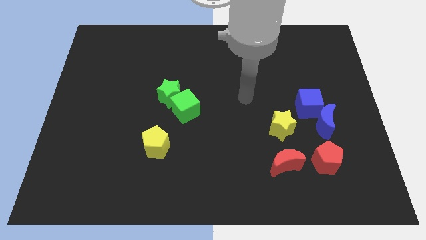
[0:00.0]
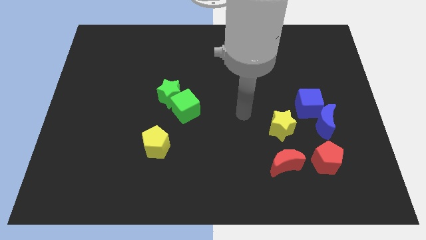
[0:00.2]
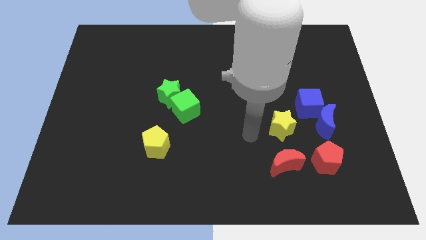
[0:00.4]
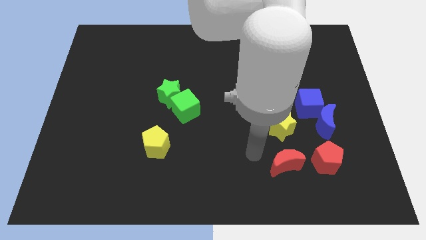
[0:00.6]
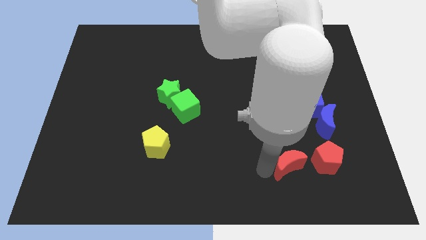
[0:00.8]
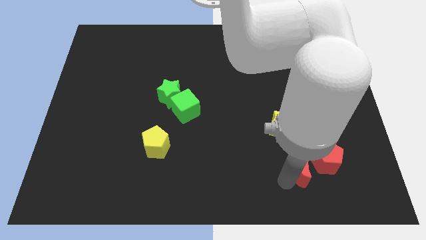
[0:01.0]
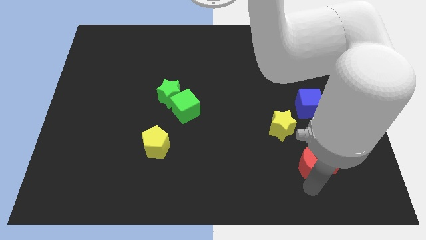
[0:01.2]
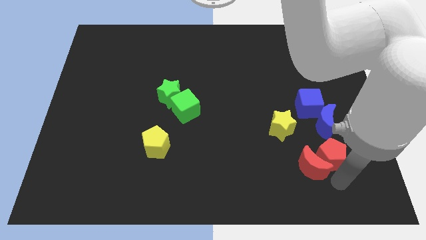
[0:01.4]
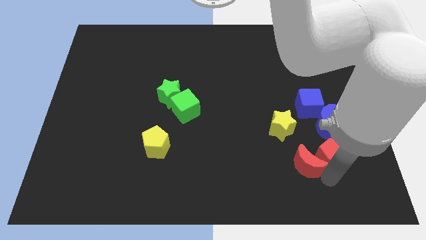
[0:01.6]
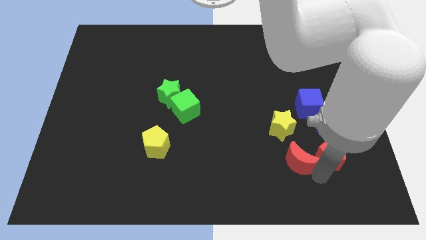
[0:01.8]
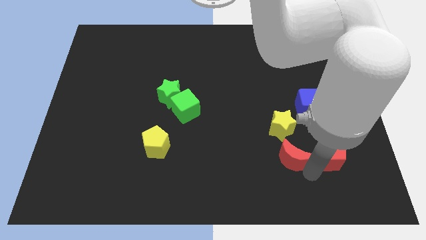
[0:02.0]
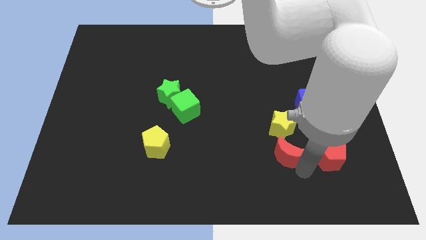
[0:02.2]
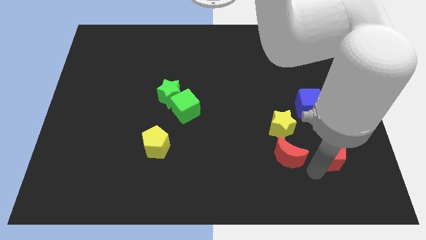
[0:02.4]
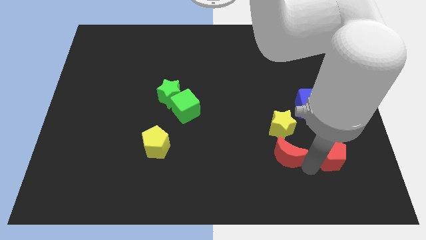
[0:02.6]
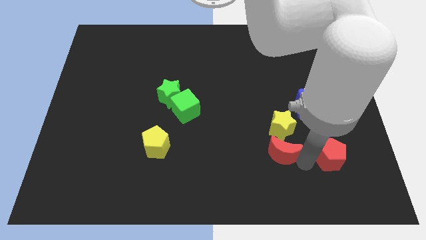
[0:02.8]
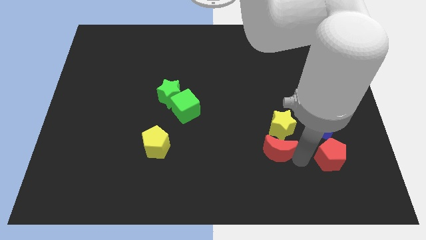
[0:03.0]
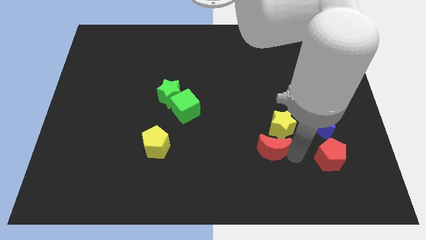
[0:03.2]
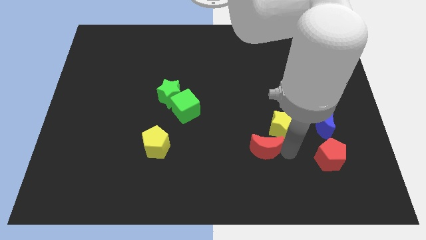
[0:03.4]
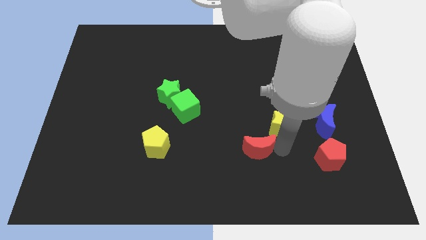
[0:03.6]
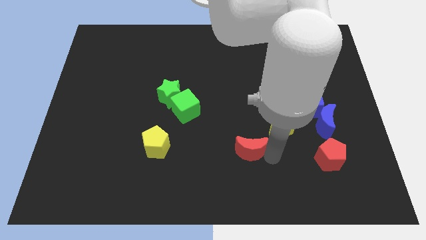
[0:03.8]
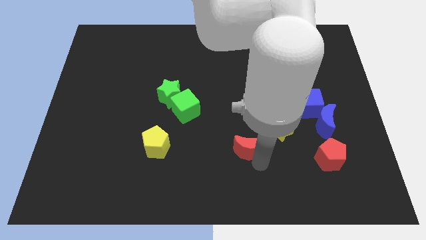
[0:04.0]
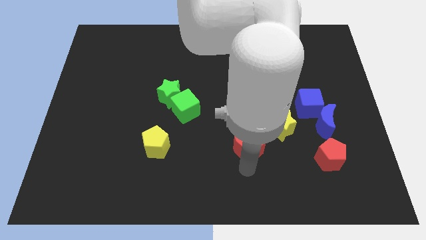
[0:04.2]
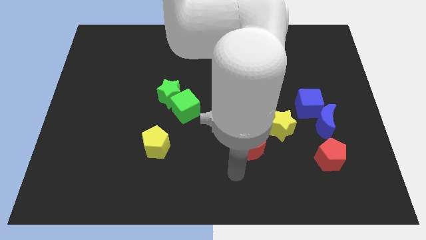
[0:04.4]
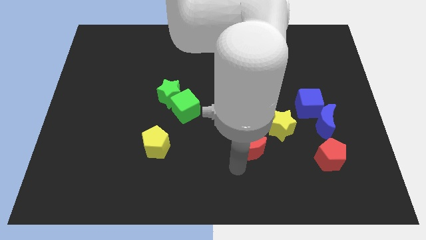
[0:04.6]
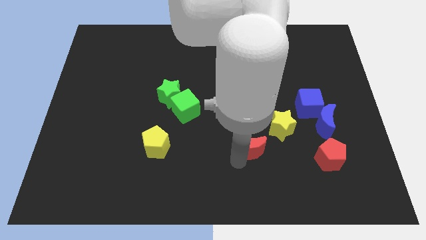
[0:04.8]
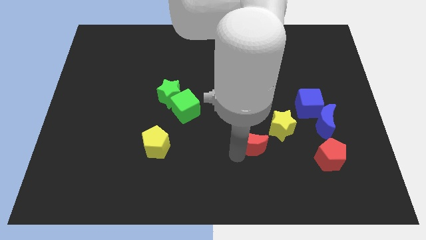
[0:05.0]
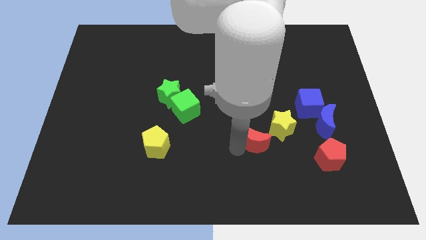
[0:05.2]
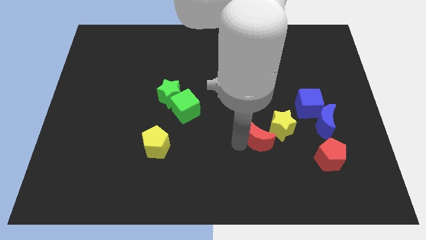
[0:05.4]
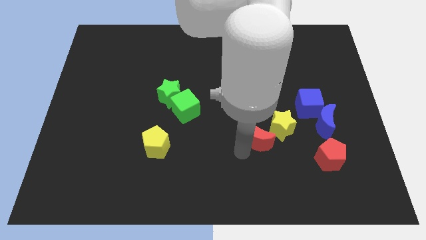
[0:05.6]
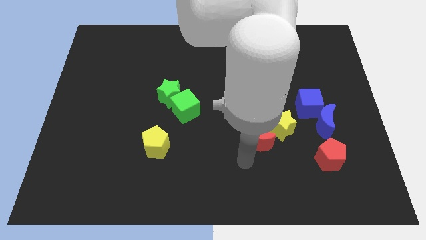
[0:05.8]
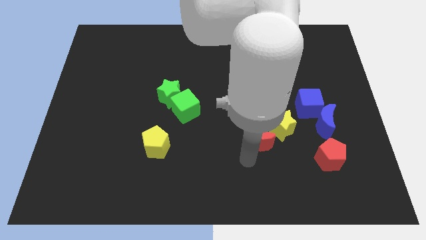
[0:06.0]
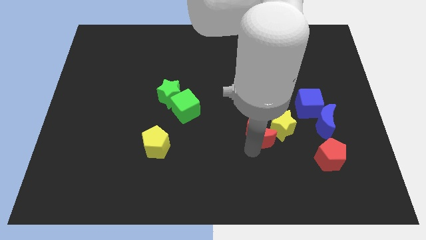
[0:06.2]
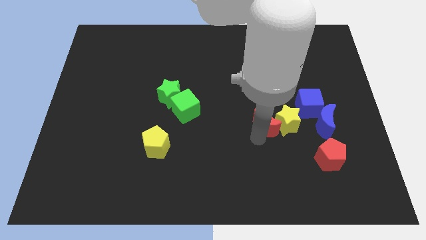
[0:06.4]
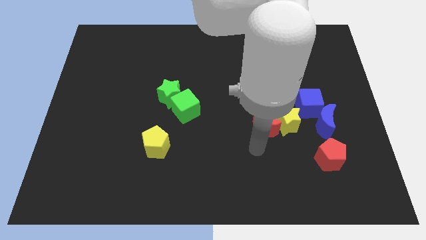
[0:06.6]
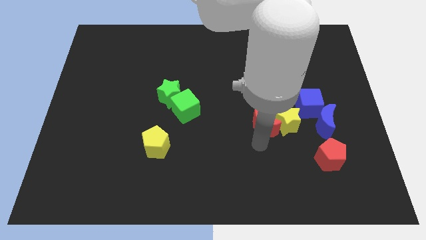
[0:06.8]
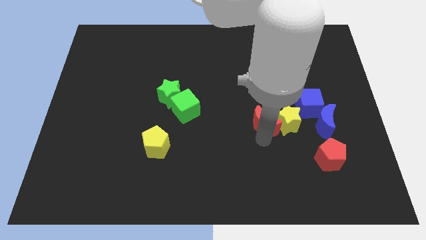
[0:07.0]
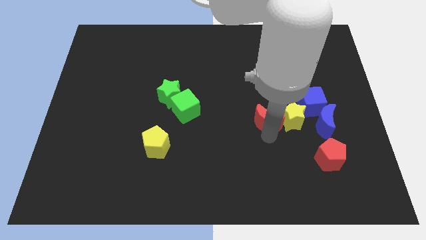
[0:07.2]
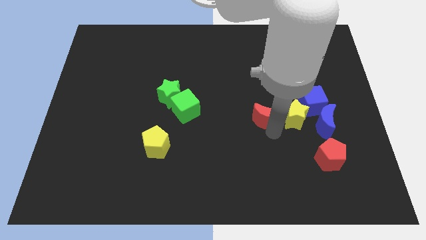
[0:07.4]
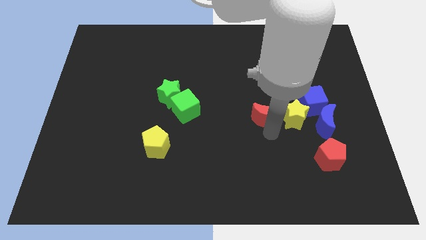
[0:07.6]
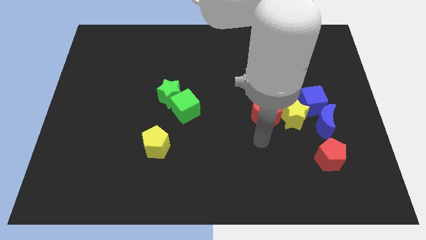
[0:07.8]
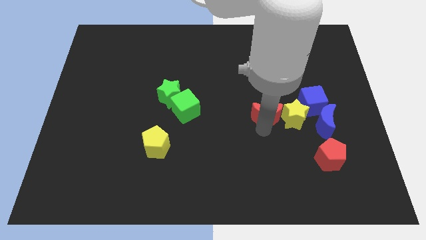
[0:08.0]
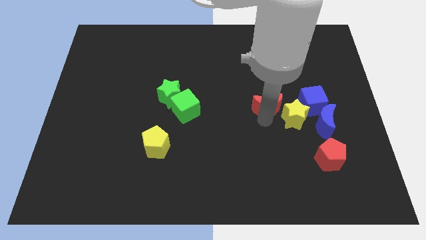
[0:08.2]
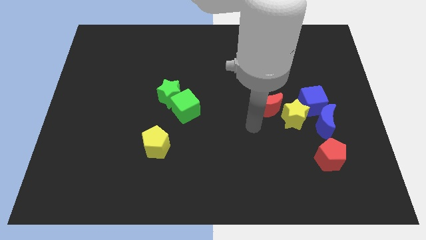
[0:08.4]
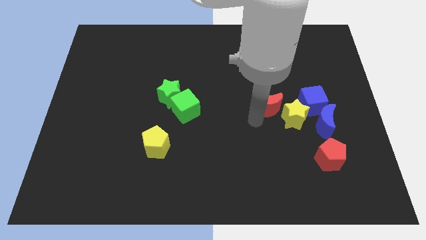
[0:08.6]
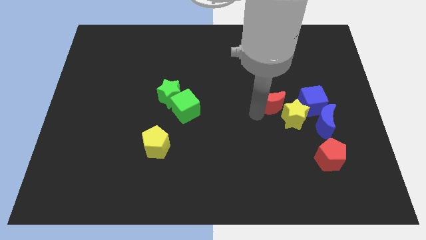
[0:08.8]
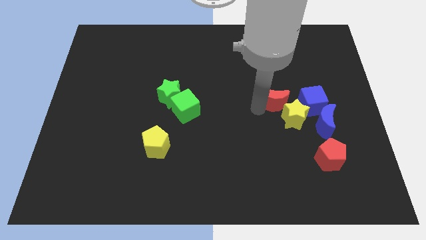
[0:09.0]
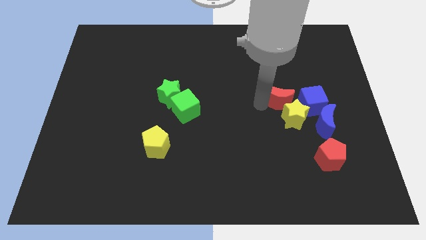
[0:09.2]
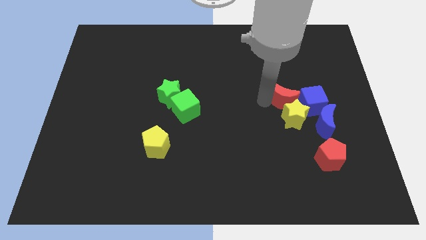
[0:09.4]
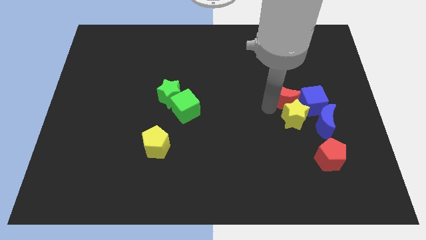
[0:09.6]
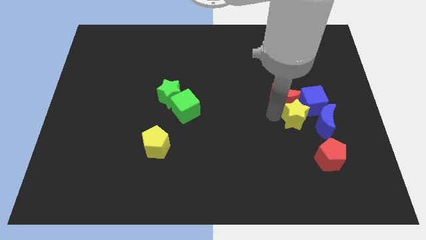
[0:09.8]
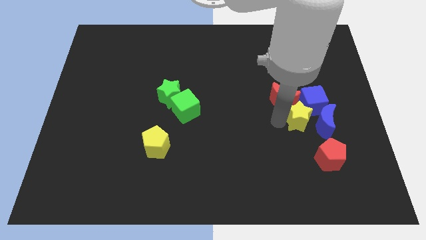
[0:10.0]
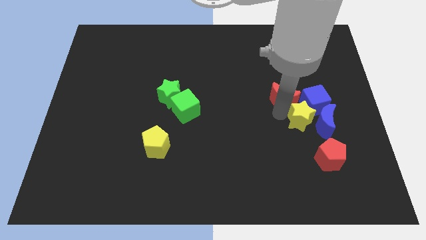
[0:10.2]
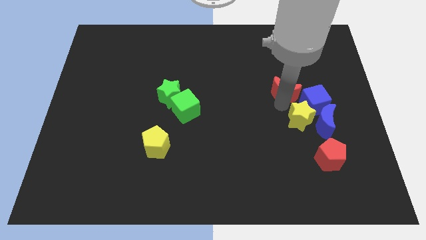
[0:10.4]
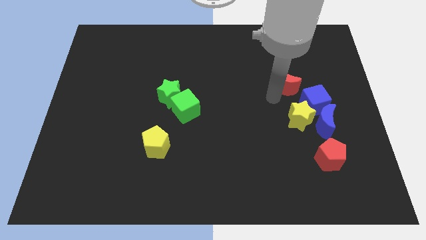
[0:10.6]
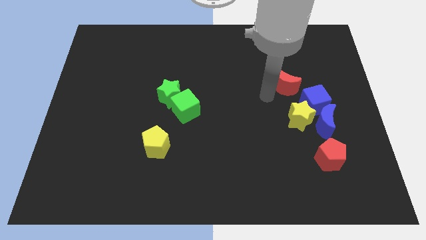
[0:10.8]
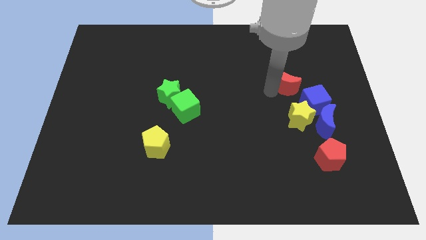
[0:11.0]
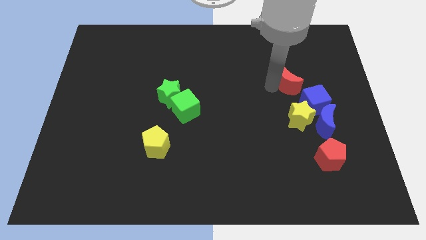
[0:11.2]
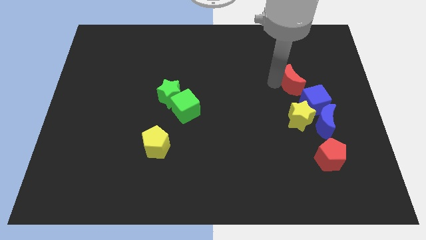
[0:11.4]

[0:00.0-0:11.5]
slide the red moon to the top side of the blue cube
